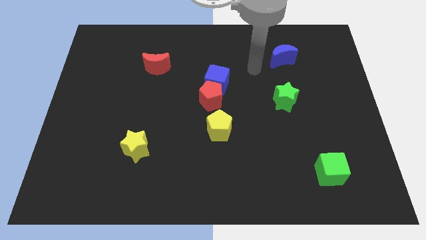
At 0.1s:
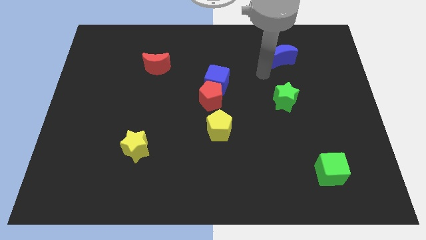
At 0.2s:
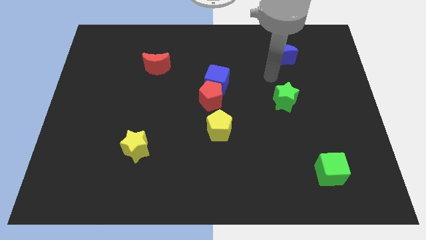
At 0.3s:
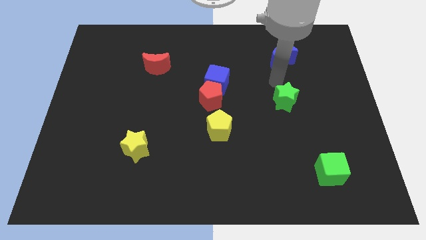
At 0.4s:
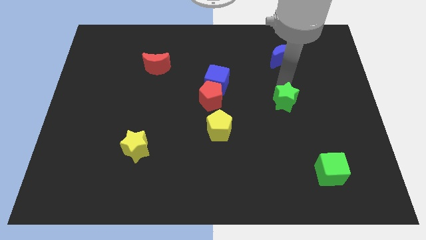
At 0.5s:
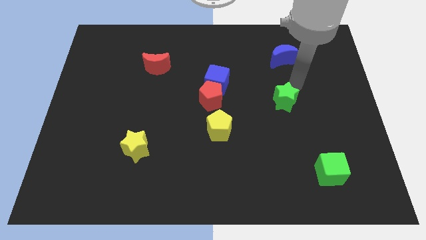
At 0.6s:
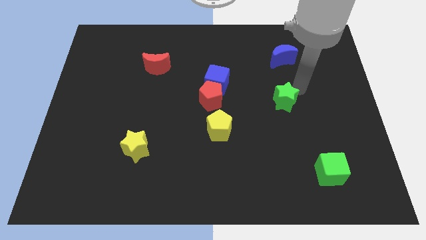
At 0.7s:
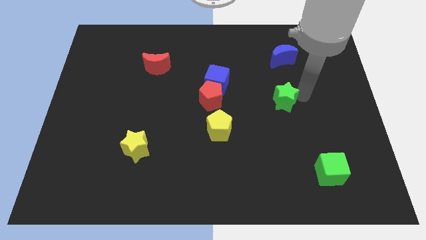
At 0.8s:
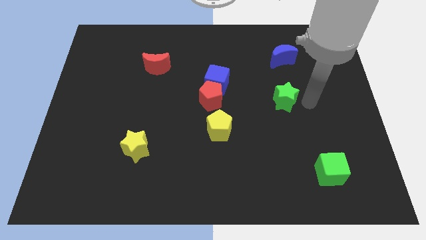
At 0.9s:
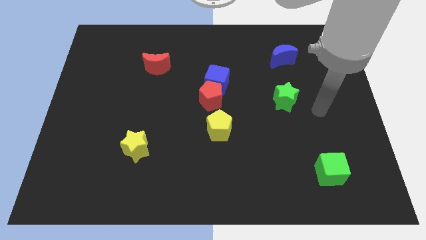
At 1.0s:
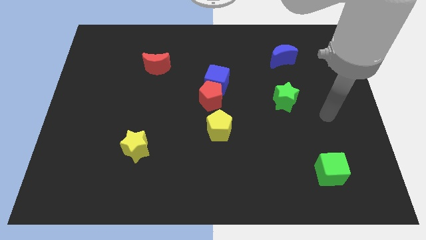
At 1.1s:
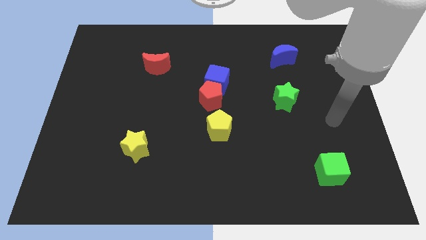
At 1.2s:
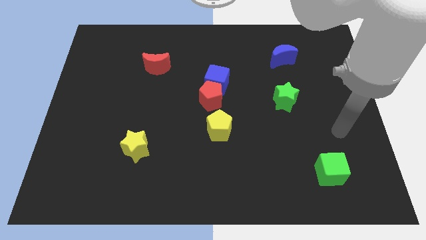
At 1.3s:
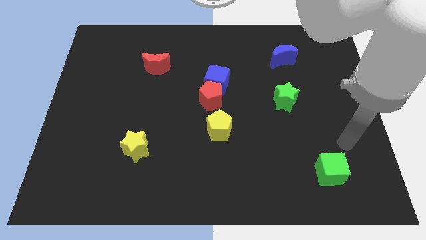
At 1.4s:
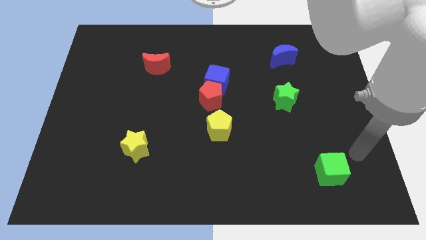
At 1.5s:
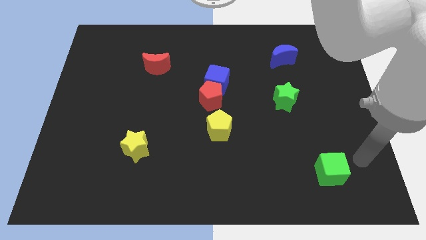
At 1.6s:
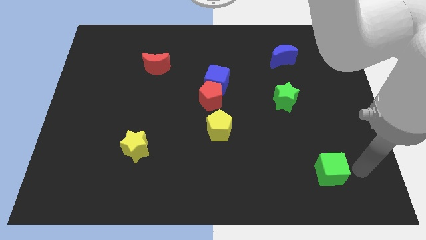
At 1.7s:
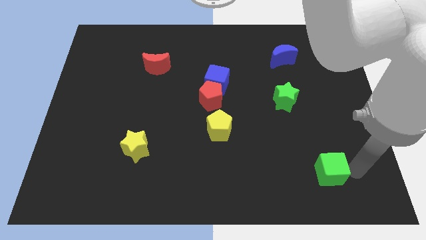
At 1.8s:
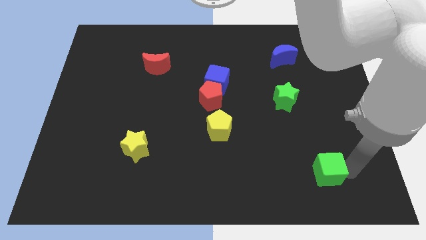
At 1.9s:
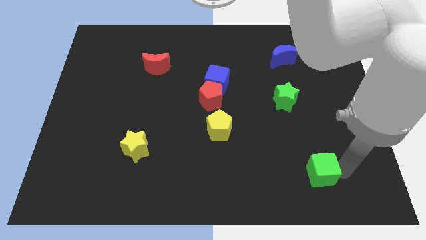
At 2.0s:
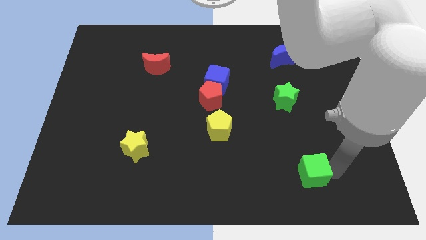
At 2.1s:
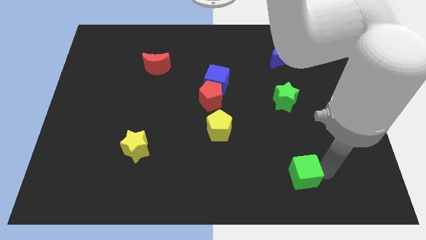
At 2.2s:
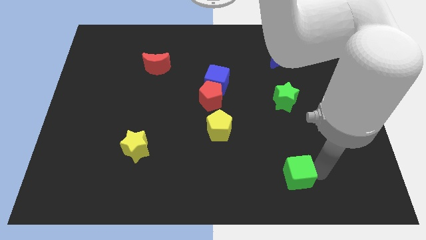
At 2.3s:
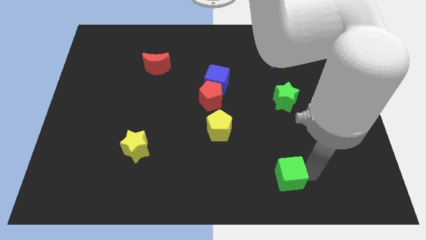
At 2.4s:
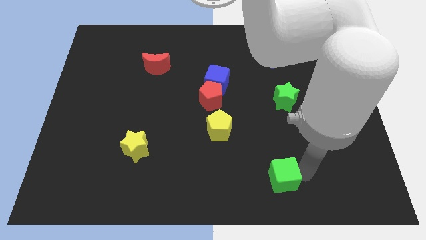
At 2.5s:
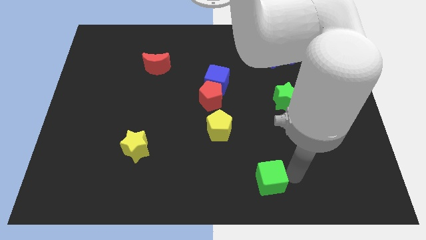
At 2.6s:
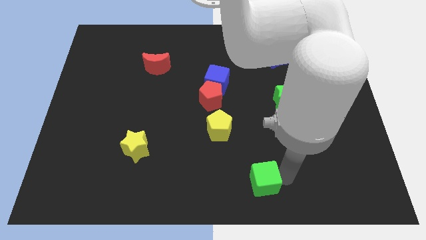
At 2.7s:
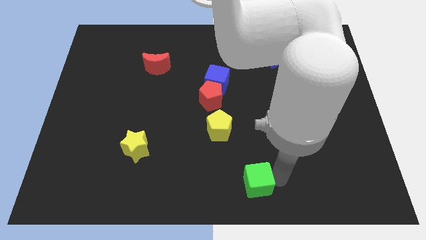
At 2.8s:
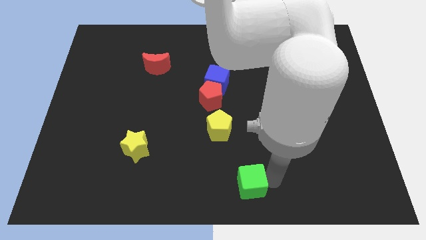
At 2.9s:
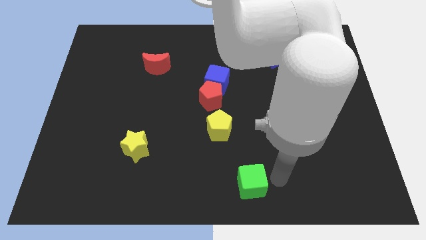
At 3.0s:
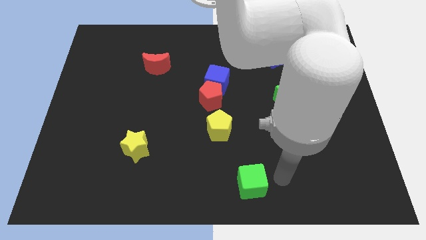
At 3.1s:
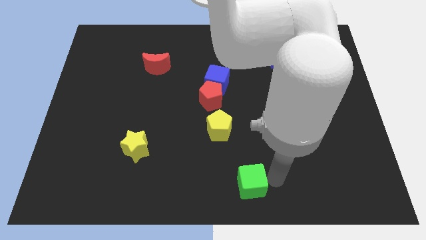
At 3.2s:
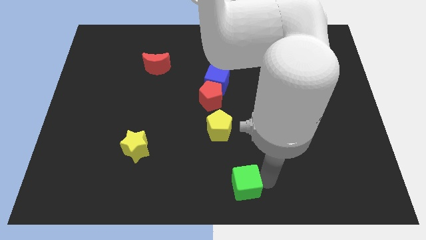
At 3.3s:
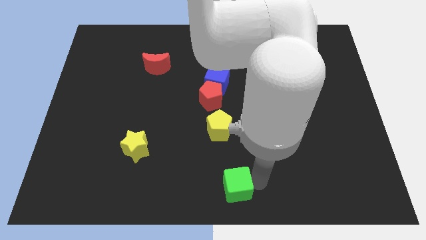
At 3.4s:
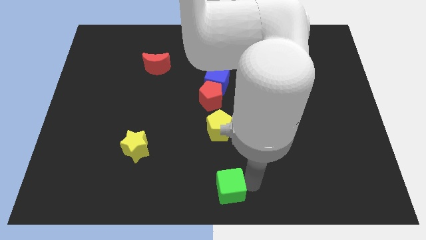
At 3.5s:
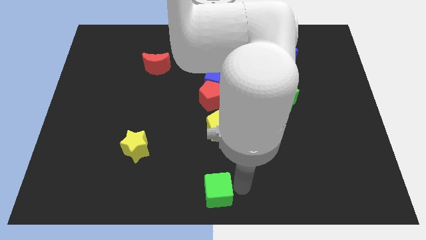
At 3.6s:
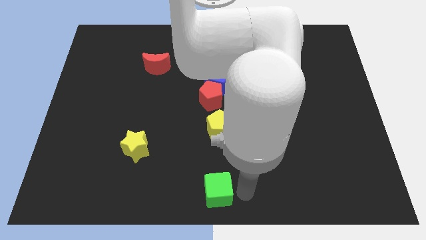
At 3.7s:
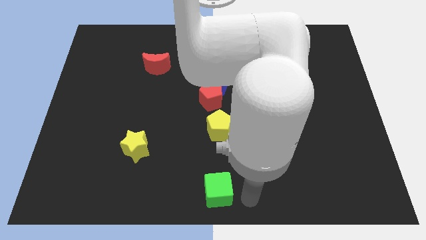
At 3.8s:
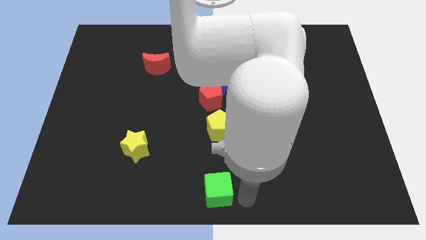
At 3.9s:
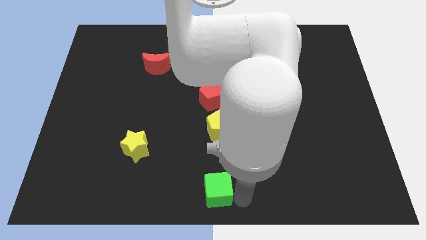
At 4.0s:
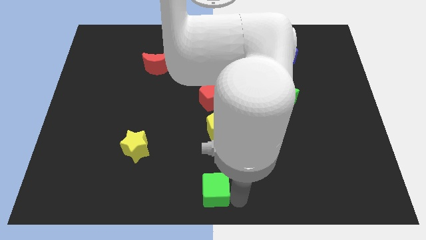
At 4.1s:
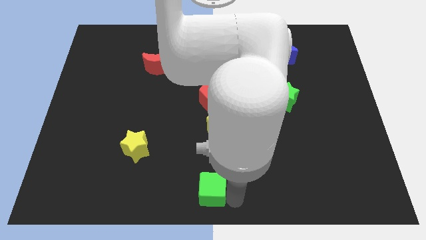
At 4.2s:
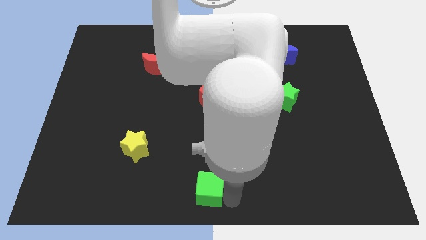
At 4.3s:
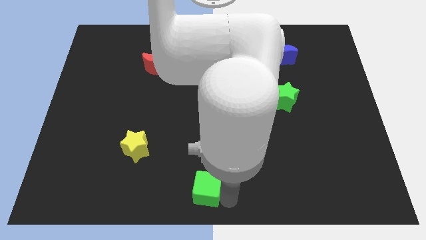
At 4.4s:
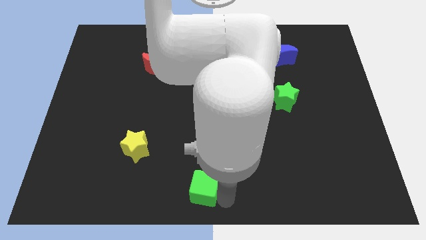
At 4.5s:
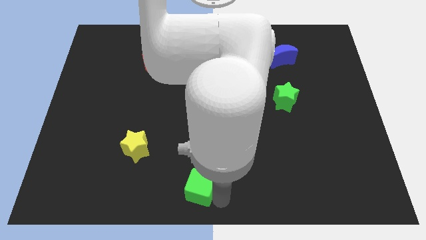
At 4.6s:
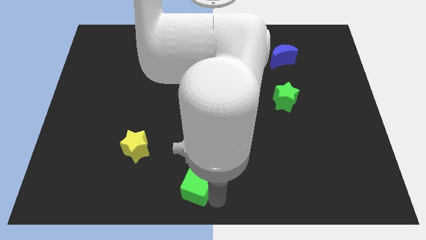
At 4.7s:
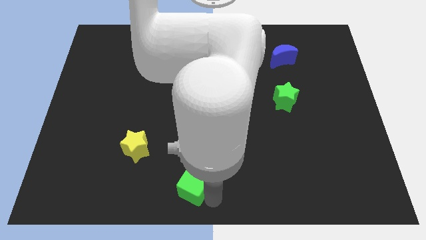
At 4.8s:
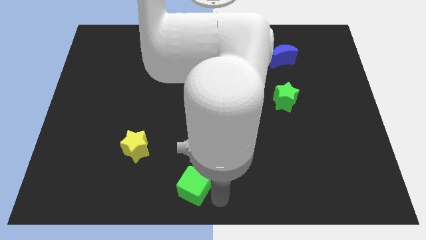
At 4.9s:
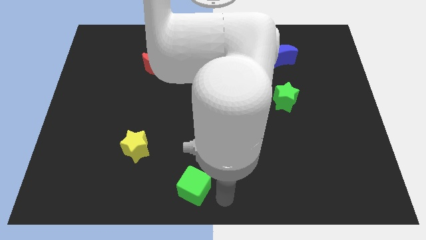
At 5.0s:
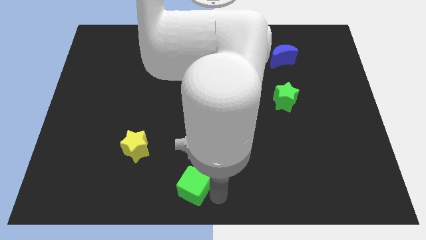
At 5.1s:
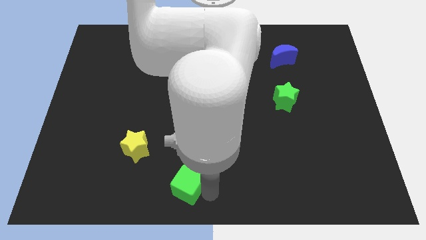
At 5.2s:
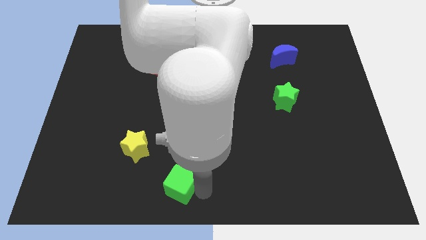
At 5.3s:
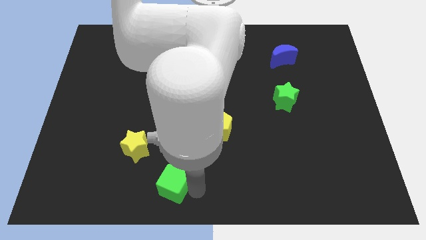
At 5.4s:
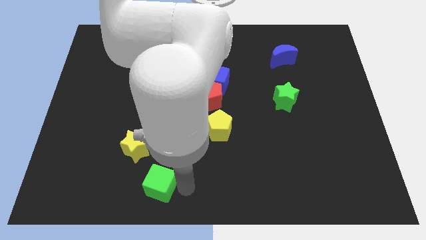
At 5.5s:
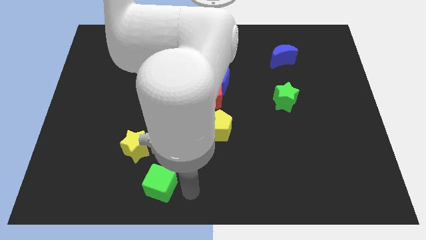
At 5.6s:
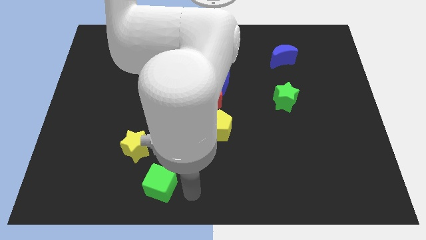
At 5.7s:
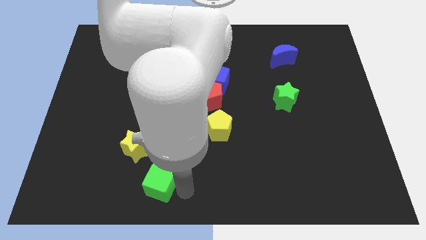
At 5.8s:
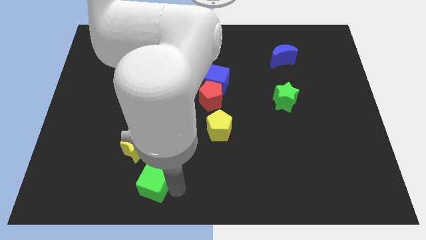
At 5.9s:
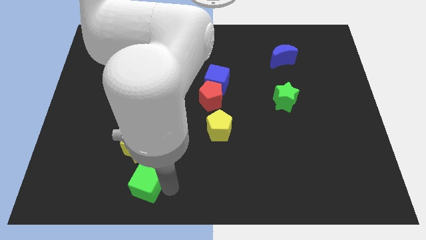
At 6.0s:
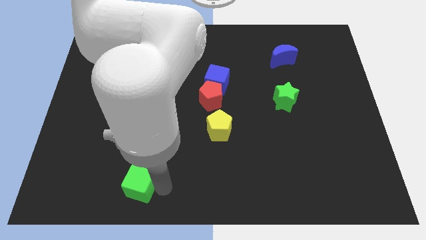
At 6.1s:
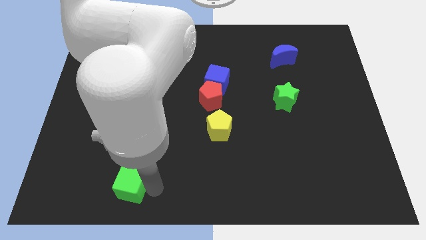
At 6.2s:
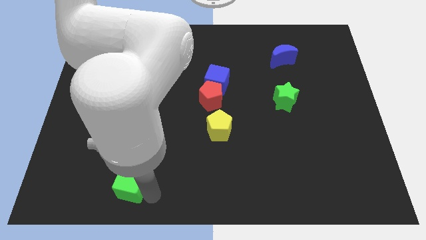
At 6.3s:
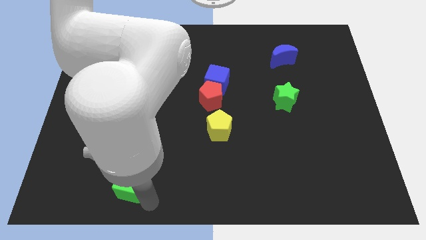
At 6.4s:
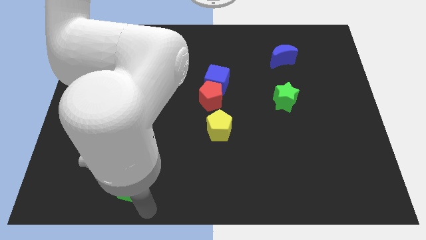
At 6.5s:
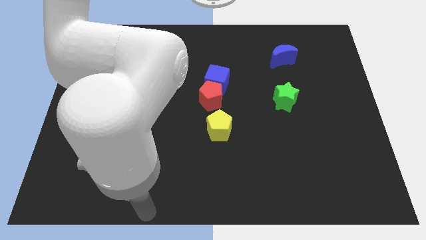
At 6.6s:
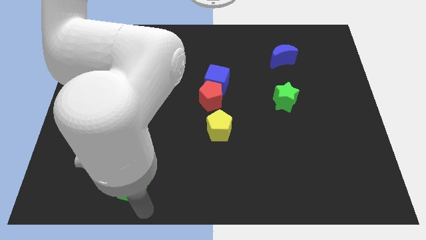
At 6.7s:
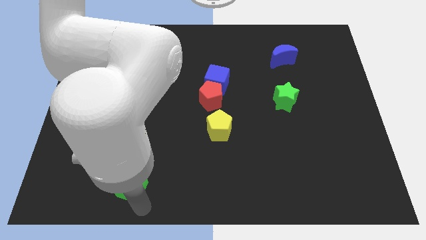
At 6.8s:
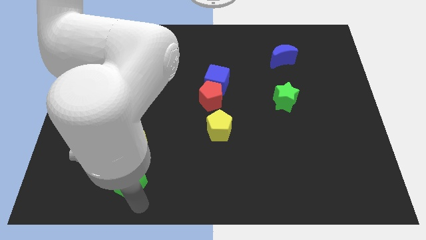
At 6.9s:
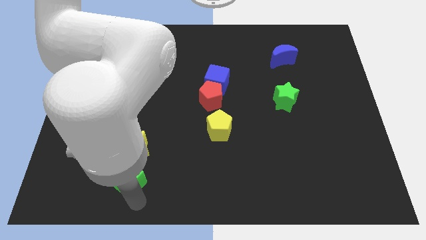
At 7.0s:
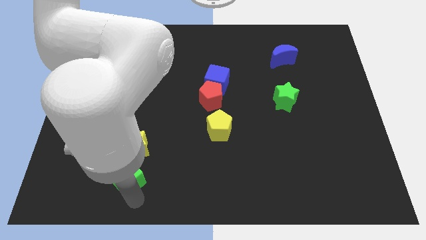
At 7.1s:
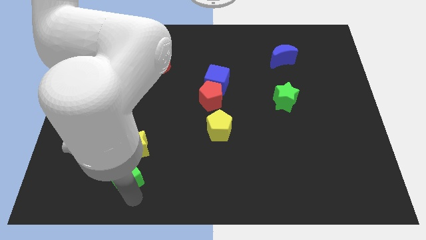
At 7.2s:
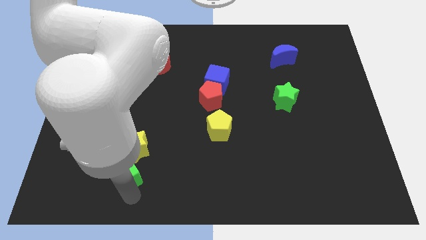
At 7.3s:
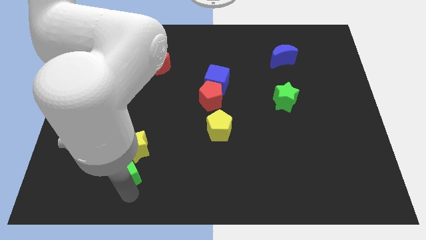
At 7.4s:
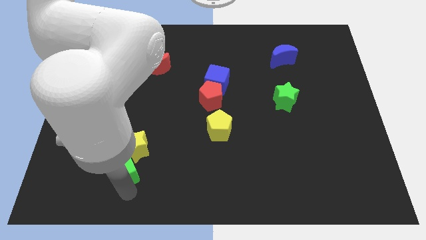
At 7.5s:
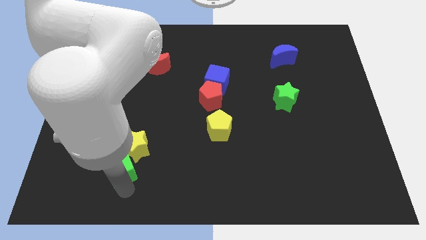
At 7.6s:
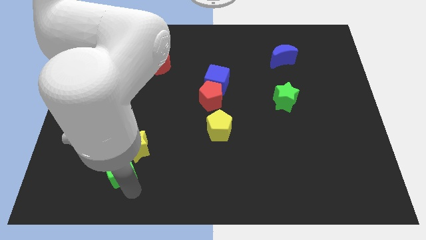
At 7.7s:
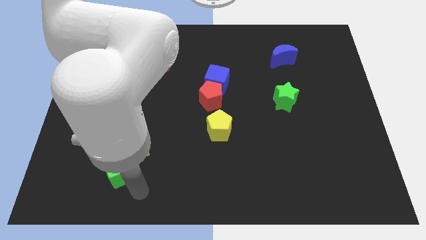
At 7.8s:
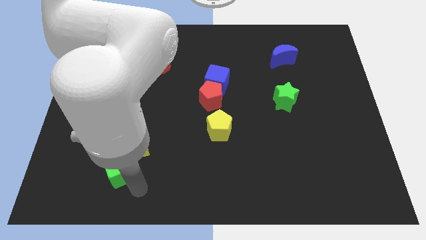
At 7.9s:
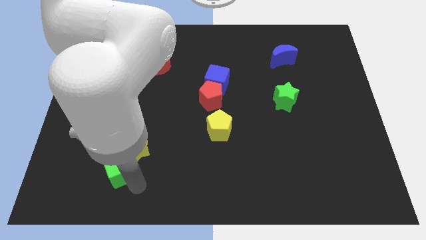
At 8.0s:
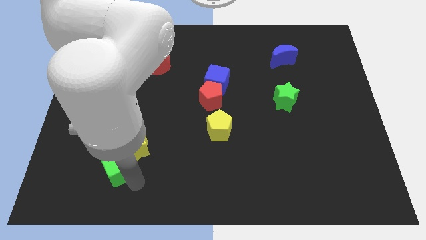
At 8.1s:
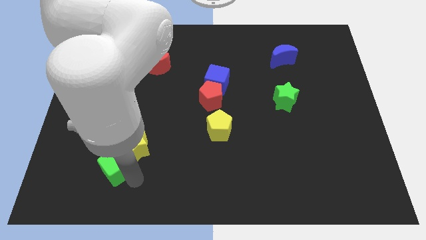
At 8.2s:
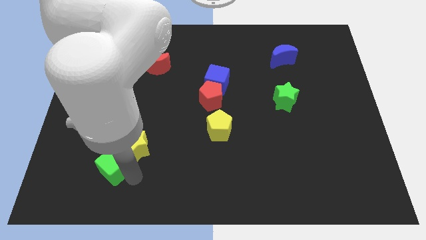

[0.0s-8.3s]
push the green cube to the left of the yellow star
